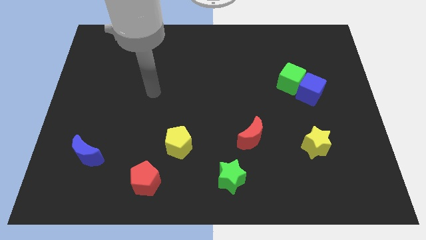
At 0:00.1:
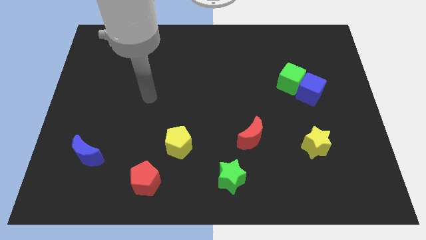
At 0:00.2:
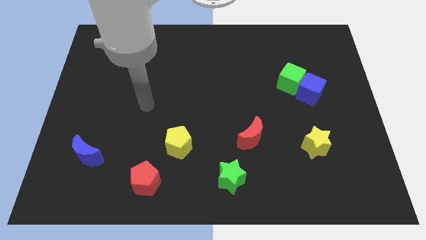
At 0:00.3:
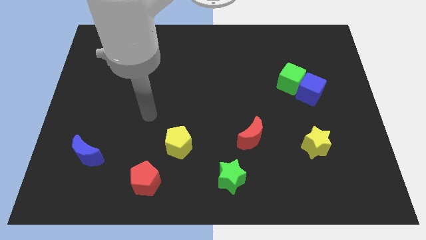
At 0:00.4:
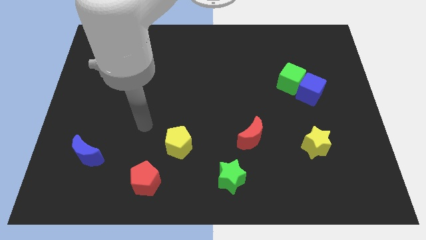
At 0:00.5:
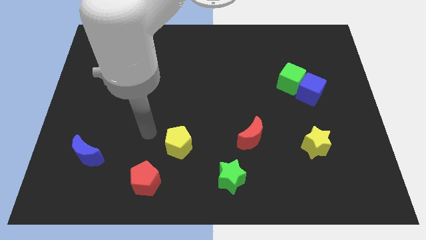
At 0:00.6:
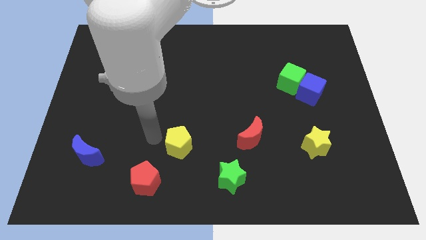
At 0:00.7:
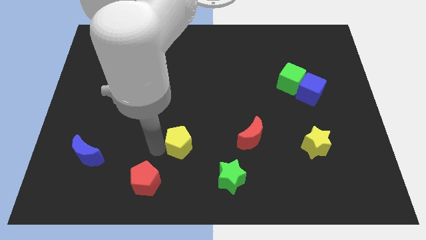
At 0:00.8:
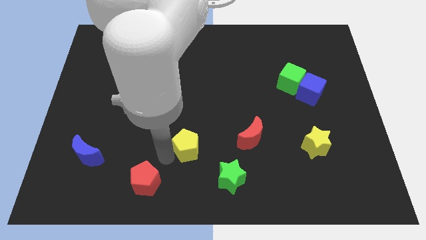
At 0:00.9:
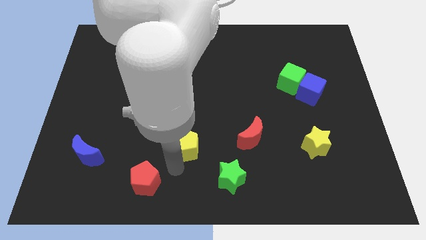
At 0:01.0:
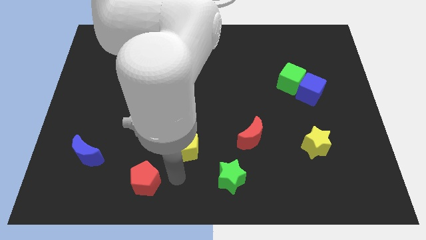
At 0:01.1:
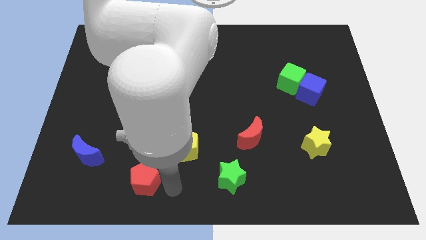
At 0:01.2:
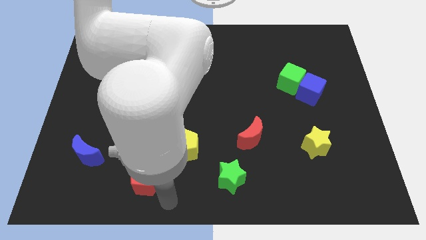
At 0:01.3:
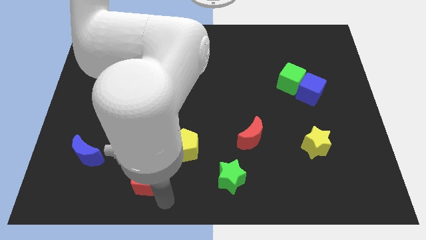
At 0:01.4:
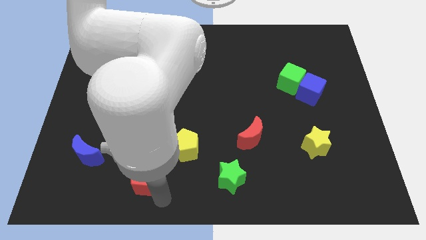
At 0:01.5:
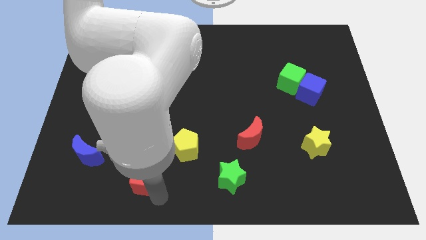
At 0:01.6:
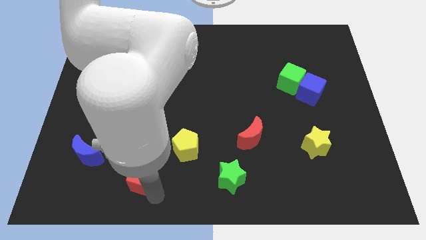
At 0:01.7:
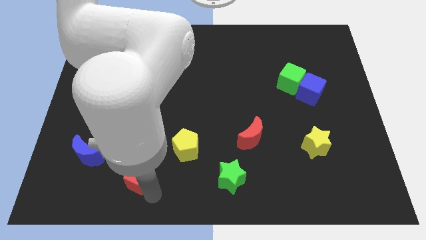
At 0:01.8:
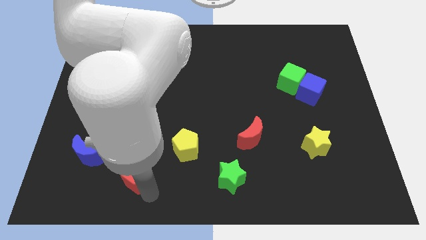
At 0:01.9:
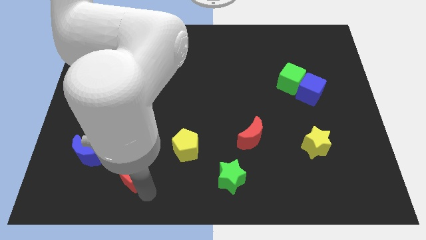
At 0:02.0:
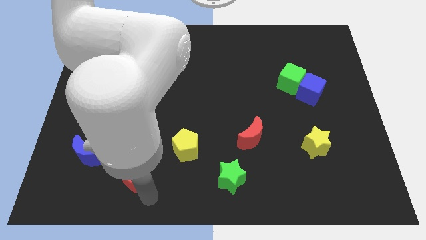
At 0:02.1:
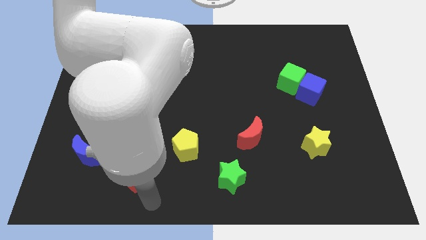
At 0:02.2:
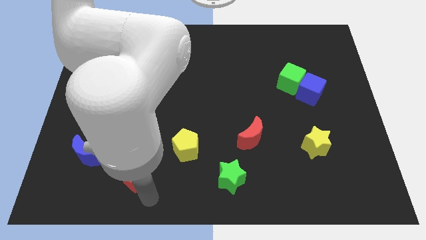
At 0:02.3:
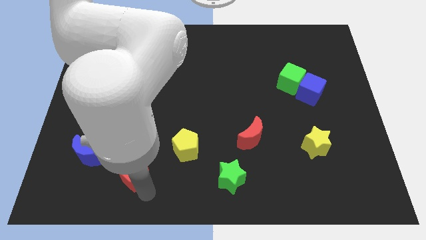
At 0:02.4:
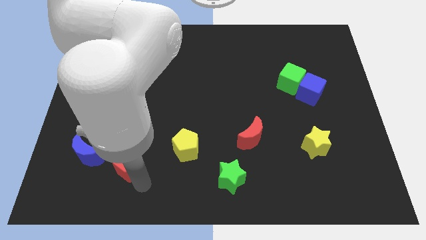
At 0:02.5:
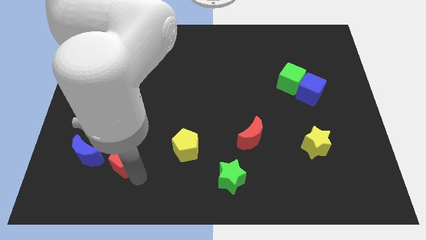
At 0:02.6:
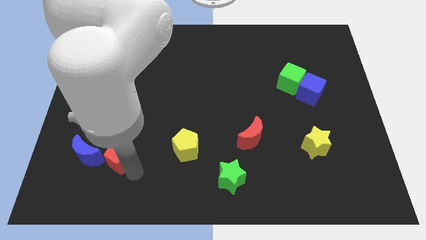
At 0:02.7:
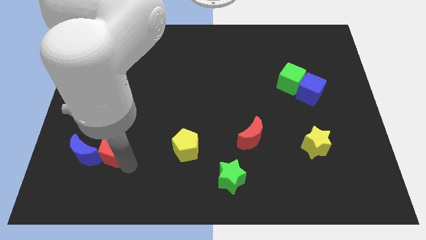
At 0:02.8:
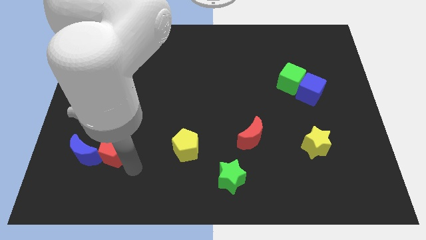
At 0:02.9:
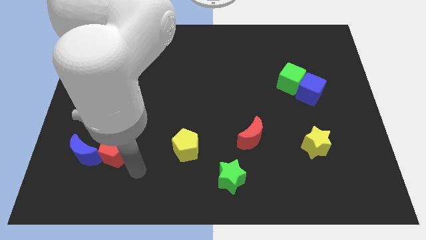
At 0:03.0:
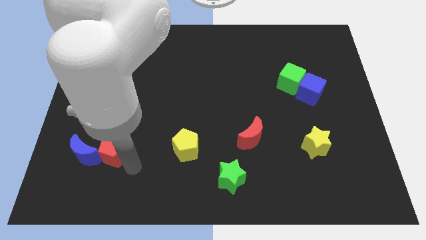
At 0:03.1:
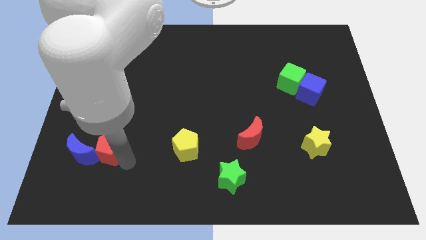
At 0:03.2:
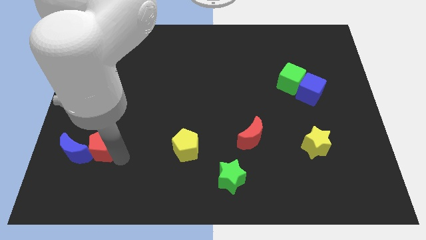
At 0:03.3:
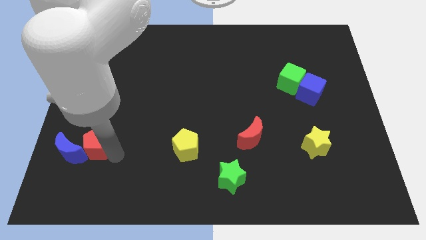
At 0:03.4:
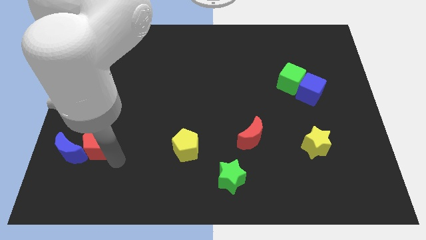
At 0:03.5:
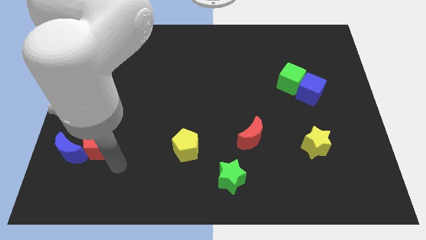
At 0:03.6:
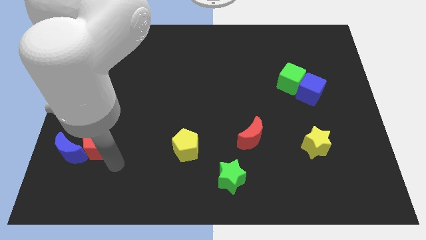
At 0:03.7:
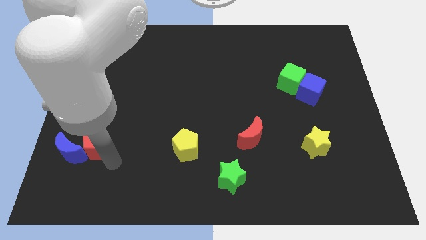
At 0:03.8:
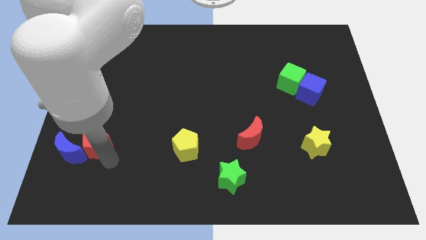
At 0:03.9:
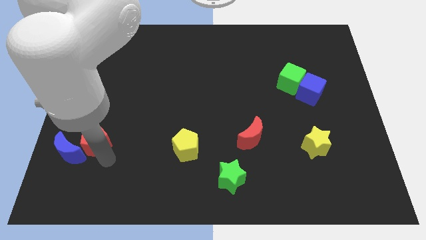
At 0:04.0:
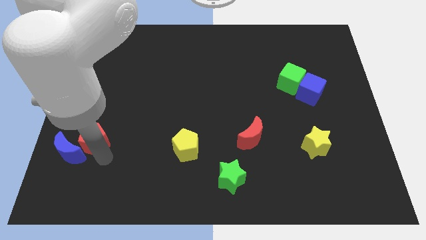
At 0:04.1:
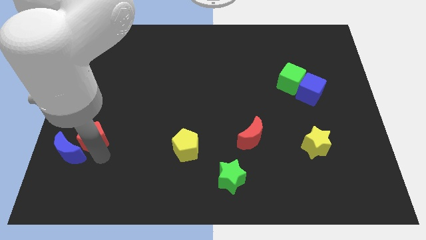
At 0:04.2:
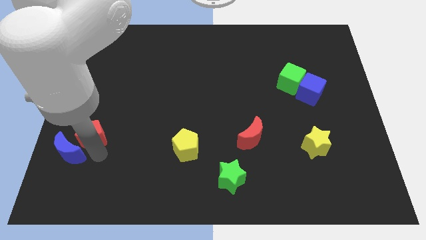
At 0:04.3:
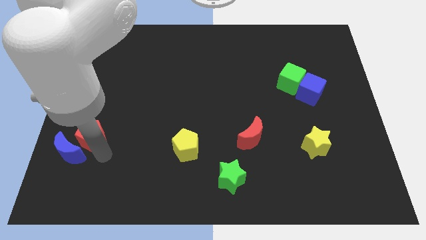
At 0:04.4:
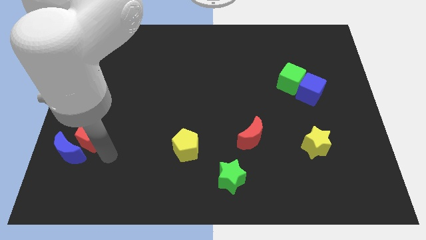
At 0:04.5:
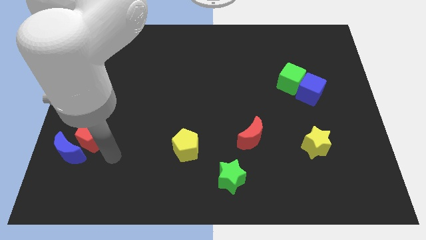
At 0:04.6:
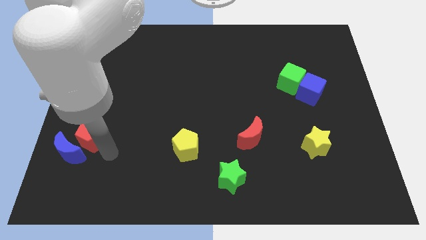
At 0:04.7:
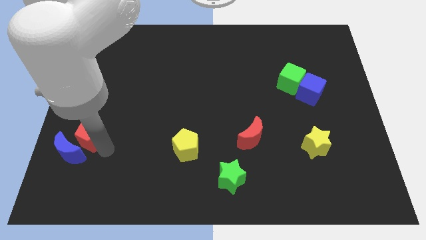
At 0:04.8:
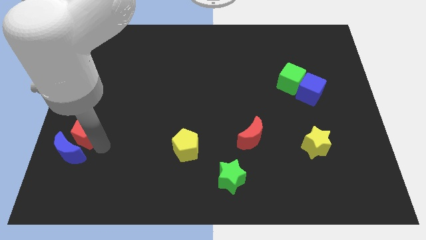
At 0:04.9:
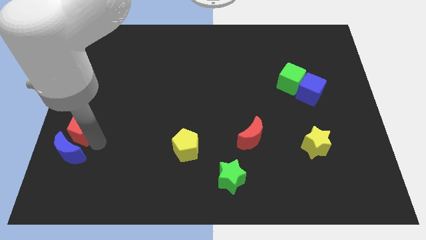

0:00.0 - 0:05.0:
slide the red pentagon to the center left

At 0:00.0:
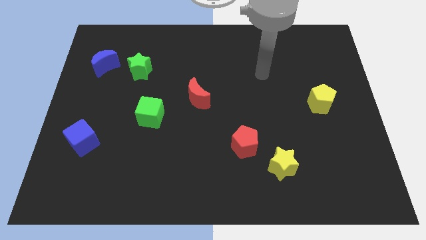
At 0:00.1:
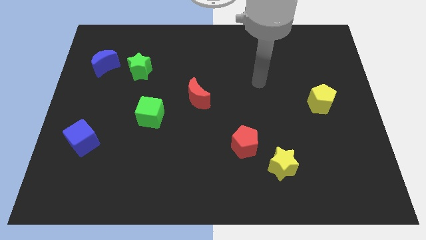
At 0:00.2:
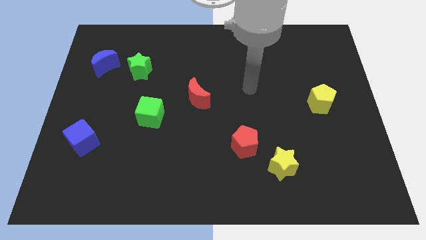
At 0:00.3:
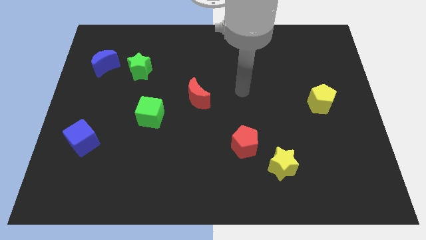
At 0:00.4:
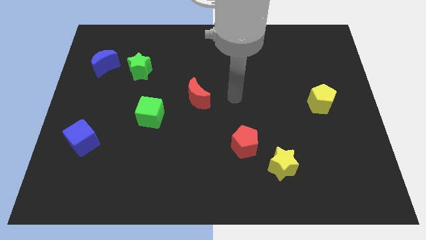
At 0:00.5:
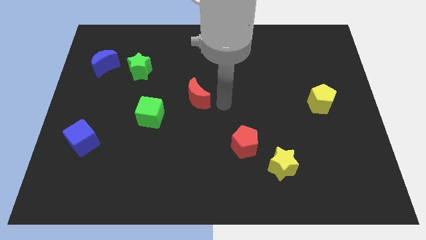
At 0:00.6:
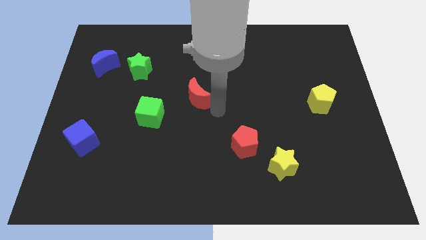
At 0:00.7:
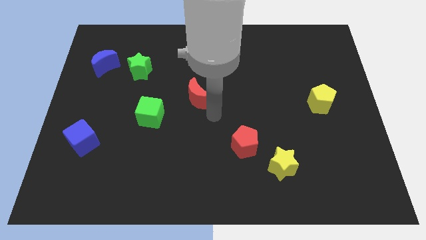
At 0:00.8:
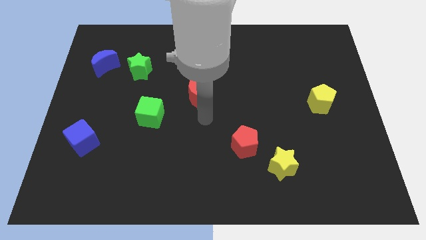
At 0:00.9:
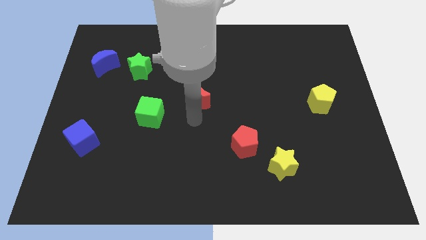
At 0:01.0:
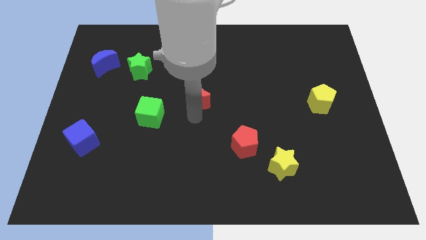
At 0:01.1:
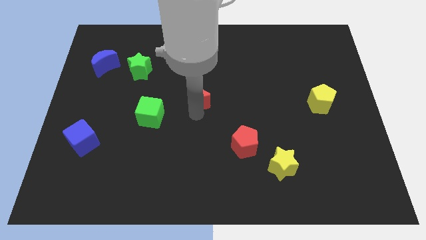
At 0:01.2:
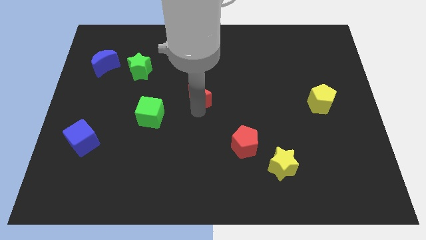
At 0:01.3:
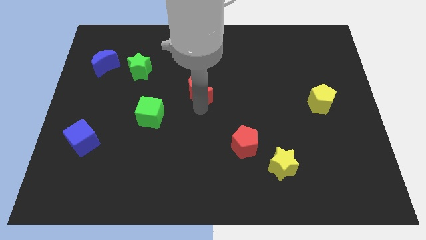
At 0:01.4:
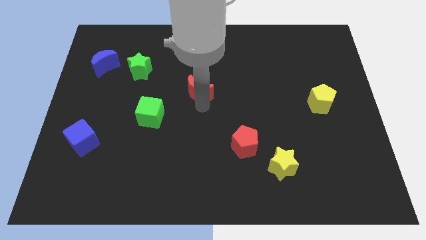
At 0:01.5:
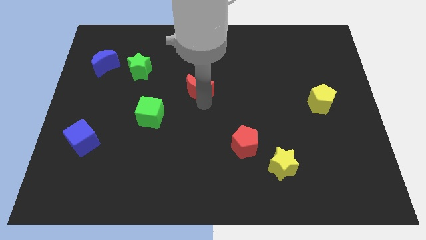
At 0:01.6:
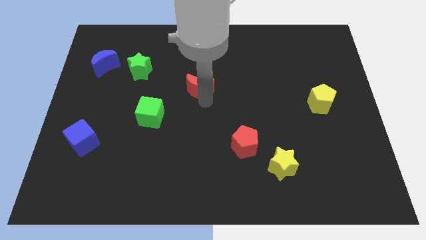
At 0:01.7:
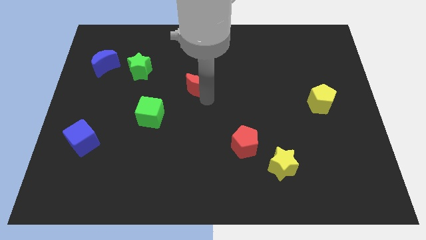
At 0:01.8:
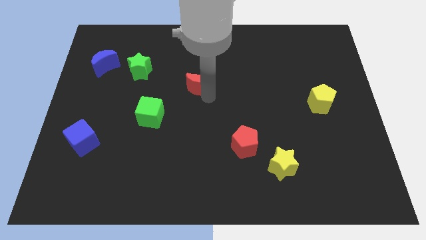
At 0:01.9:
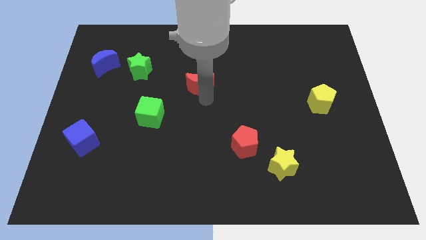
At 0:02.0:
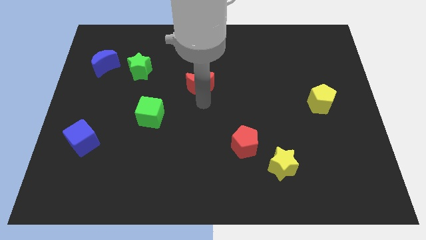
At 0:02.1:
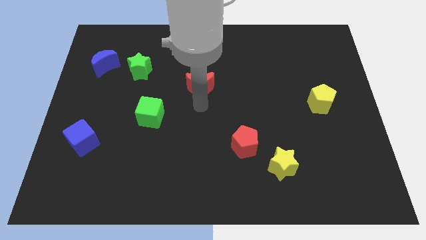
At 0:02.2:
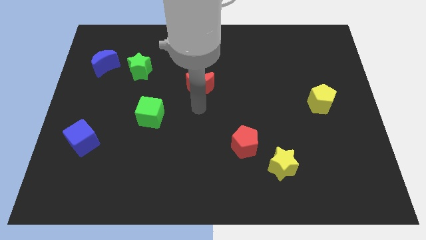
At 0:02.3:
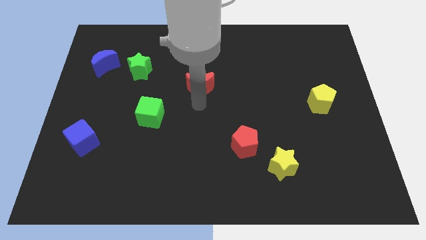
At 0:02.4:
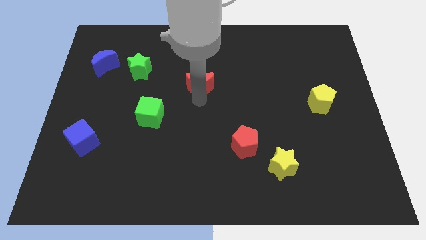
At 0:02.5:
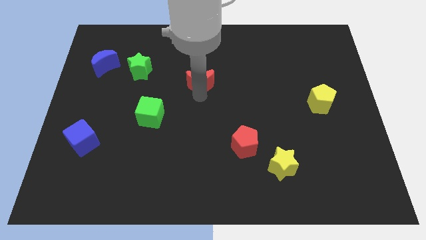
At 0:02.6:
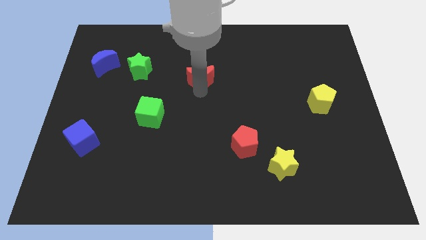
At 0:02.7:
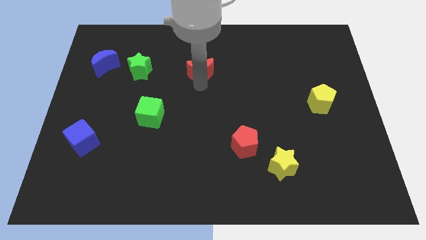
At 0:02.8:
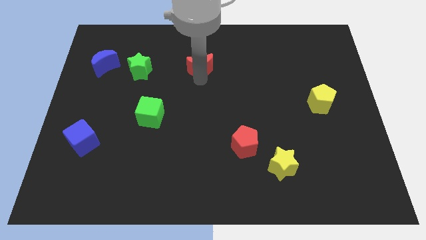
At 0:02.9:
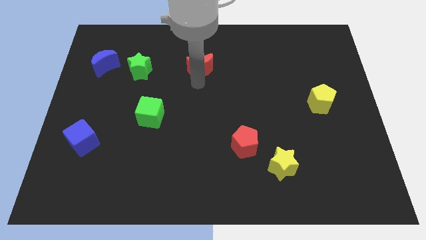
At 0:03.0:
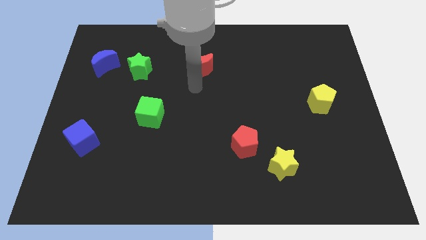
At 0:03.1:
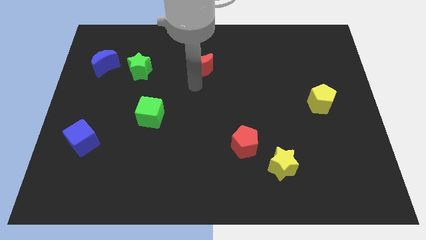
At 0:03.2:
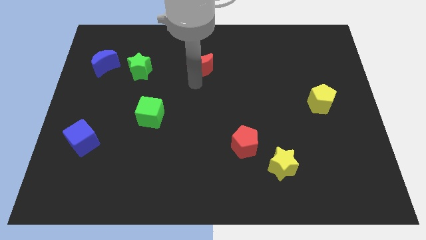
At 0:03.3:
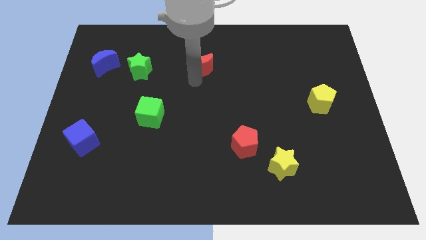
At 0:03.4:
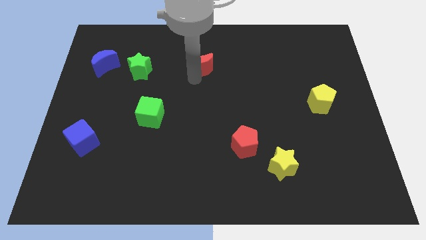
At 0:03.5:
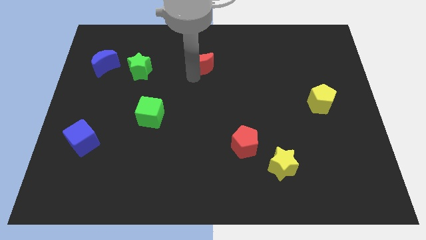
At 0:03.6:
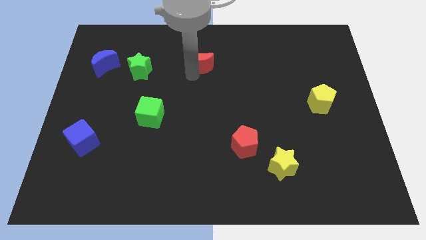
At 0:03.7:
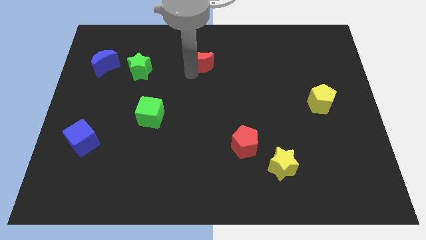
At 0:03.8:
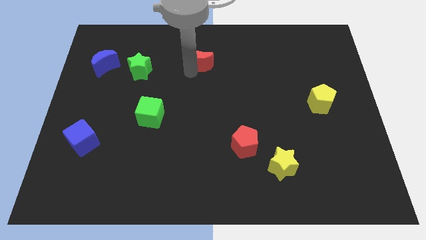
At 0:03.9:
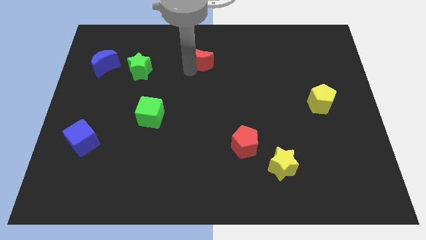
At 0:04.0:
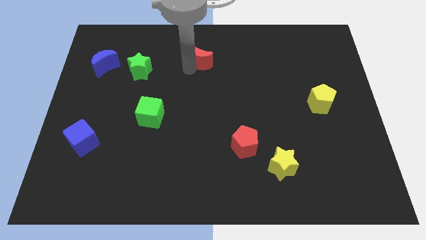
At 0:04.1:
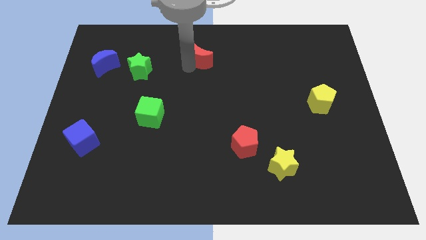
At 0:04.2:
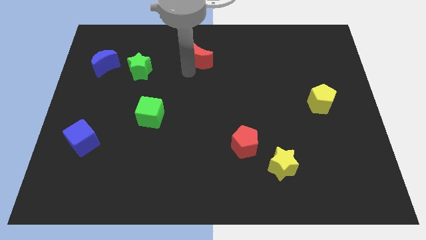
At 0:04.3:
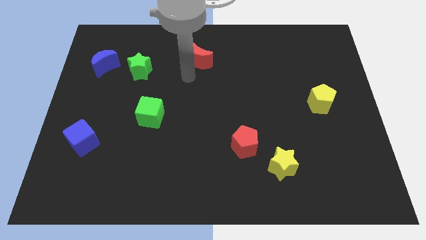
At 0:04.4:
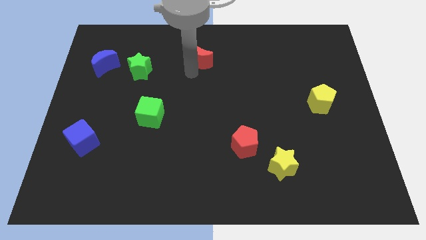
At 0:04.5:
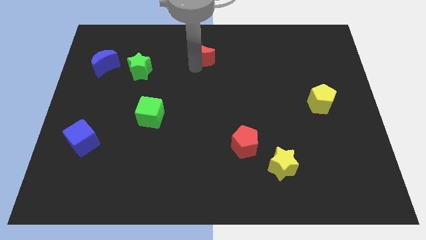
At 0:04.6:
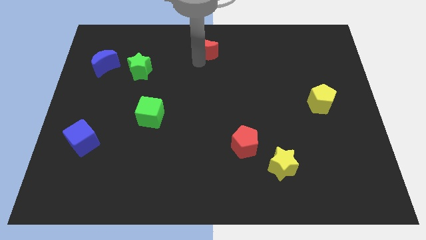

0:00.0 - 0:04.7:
put the red moon to the top side
